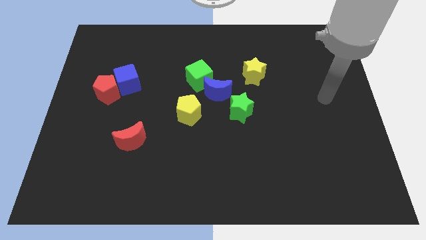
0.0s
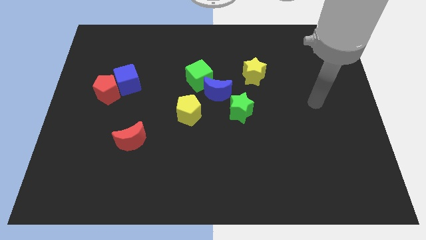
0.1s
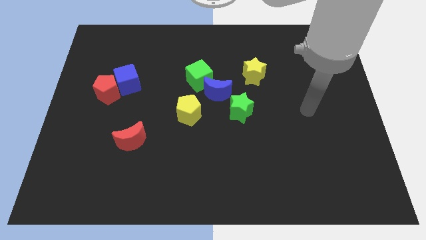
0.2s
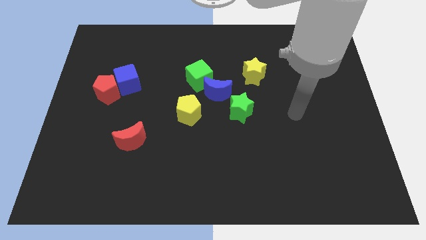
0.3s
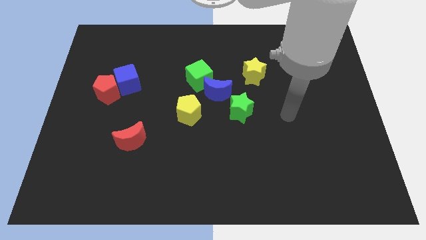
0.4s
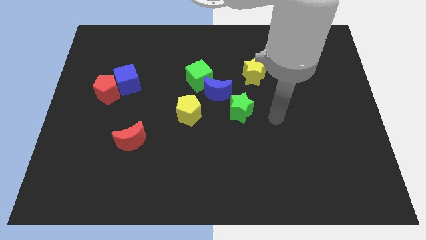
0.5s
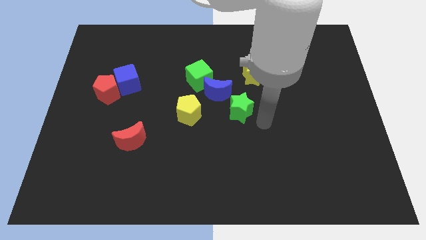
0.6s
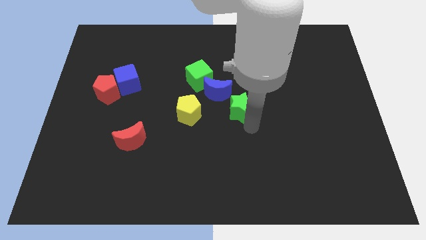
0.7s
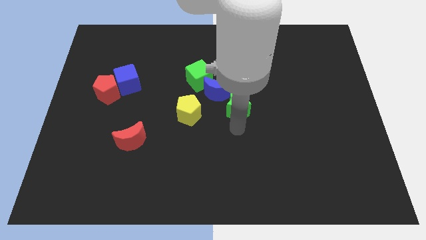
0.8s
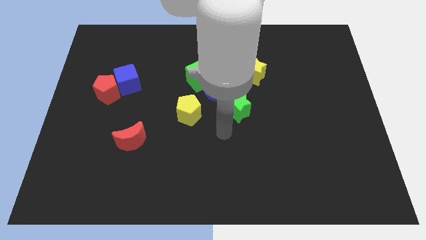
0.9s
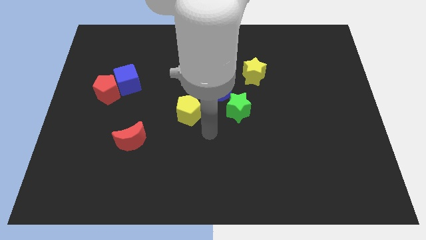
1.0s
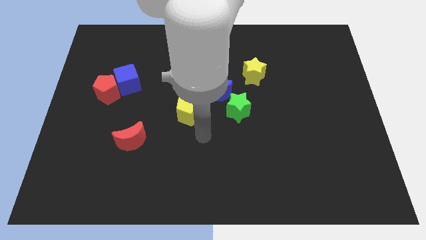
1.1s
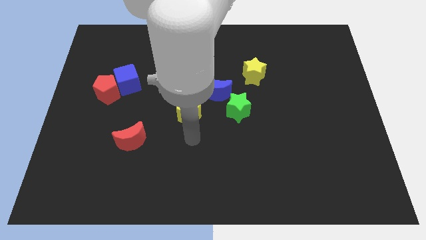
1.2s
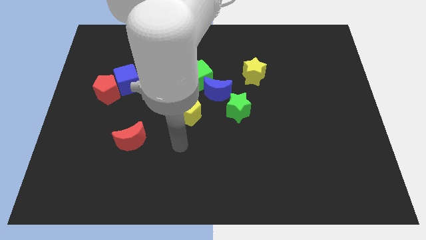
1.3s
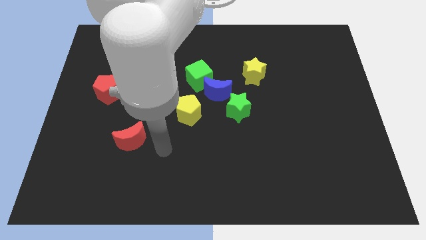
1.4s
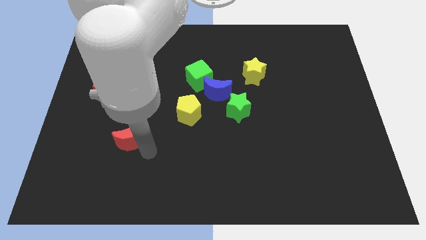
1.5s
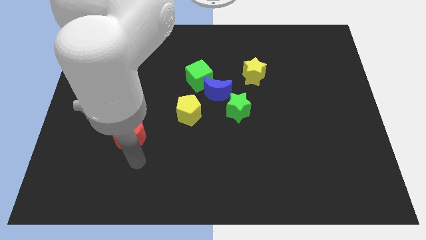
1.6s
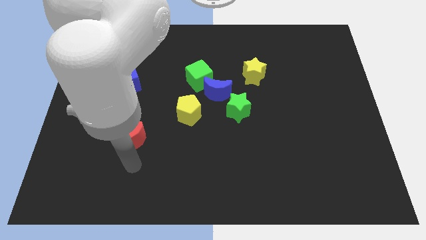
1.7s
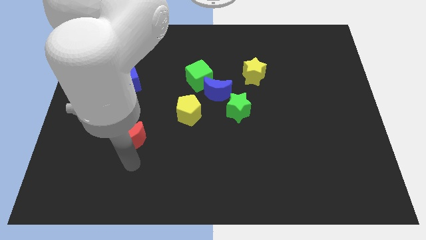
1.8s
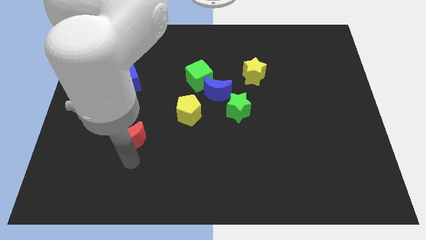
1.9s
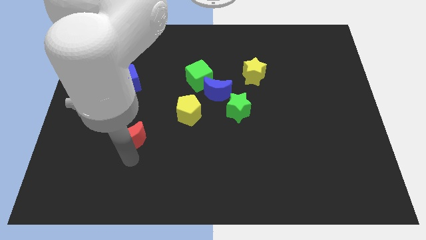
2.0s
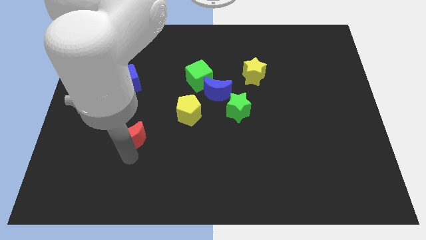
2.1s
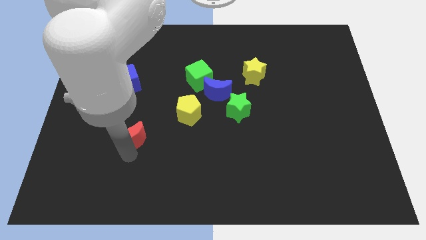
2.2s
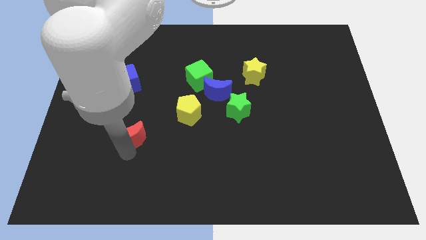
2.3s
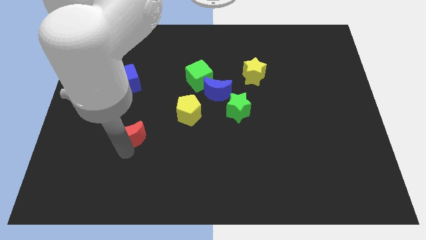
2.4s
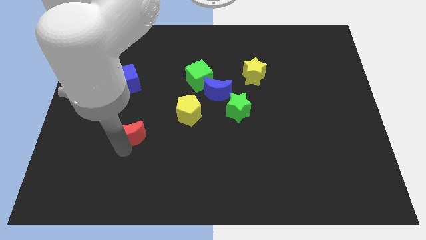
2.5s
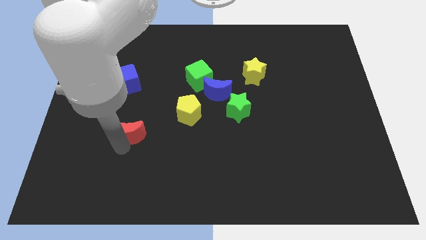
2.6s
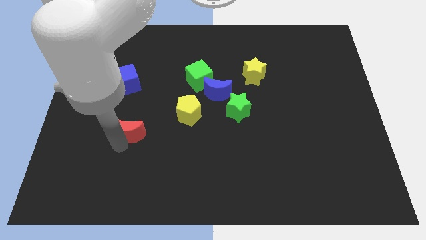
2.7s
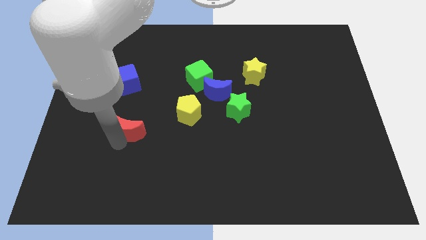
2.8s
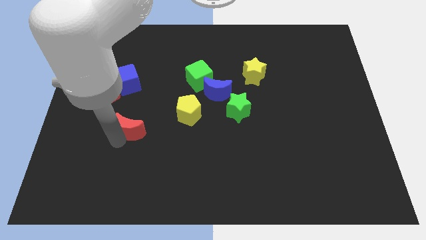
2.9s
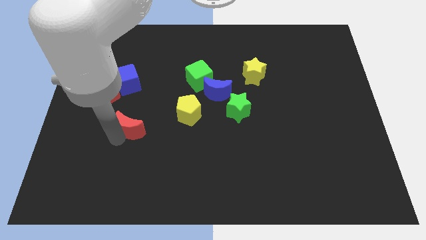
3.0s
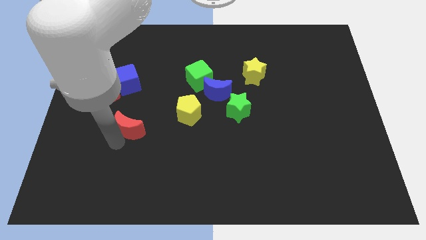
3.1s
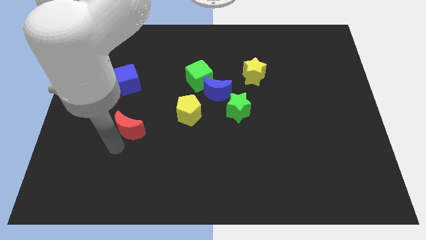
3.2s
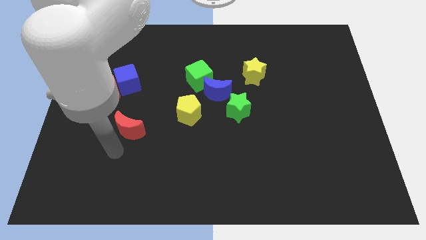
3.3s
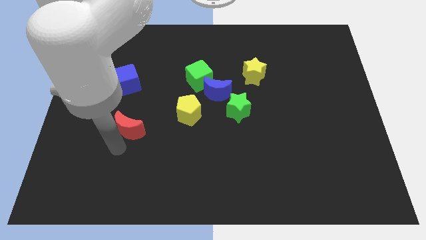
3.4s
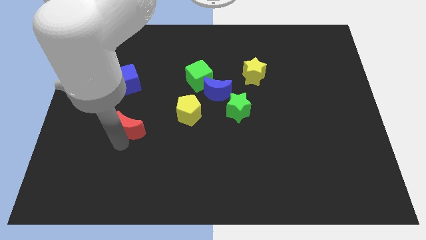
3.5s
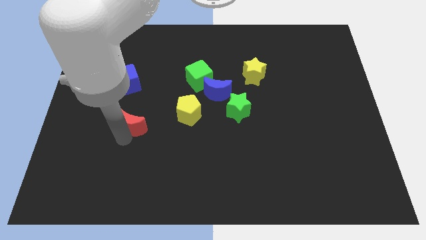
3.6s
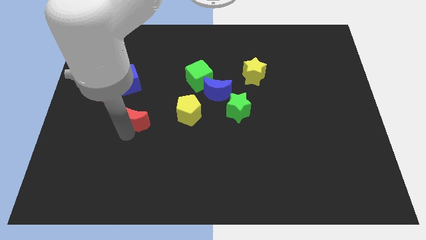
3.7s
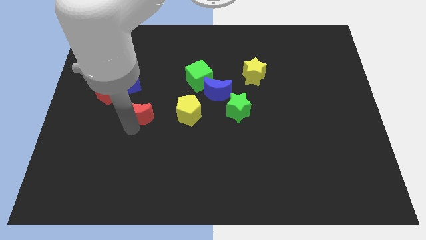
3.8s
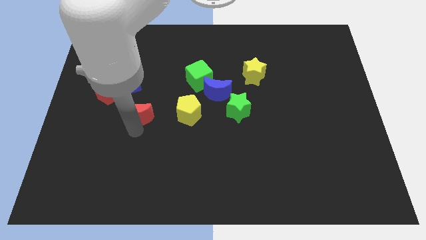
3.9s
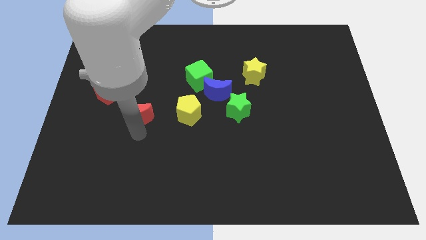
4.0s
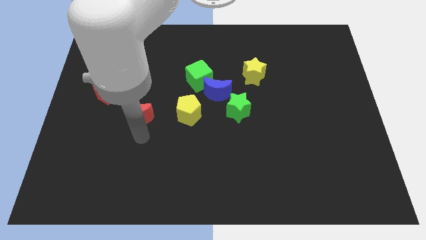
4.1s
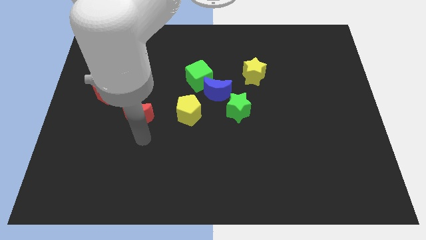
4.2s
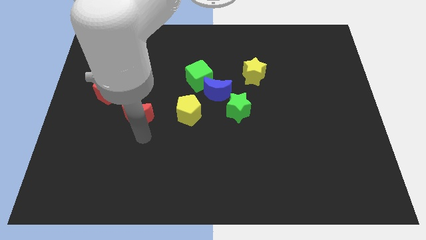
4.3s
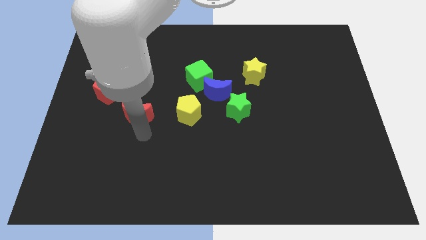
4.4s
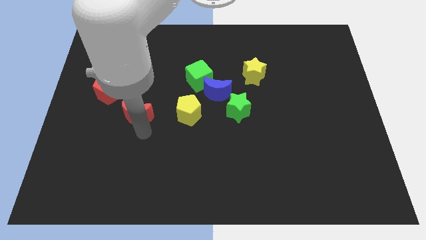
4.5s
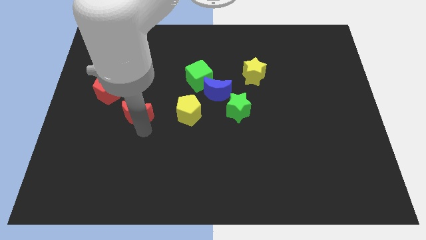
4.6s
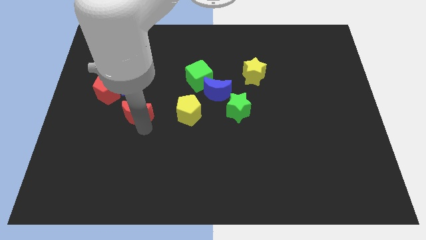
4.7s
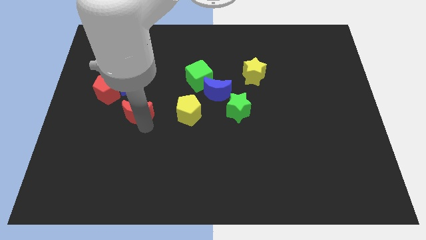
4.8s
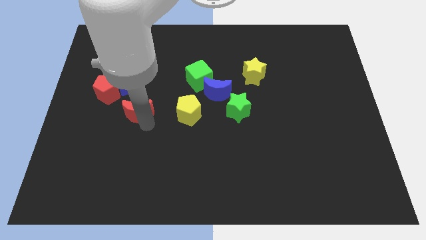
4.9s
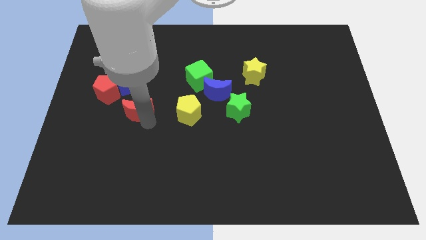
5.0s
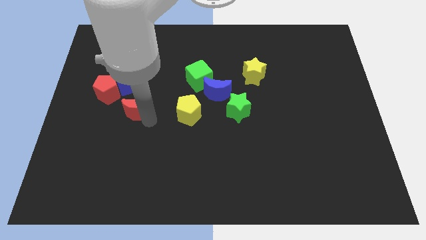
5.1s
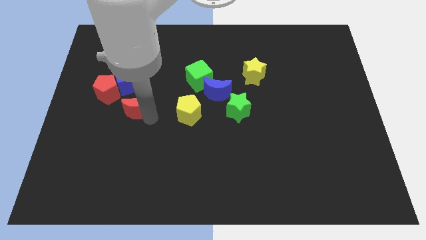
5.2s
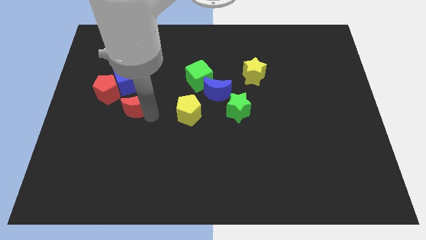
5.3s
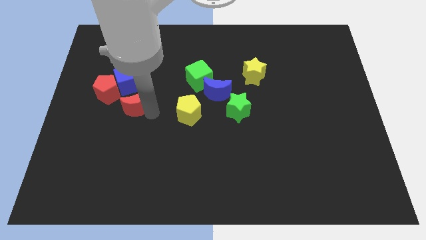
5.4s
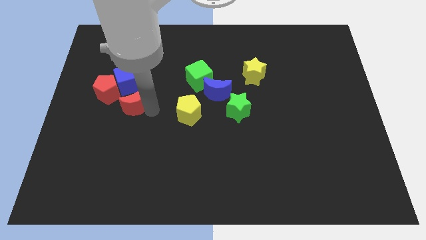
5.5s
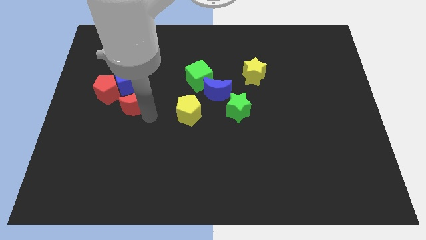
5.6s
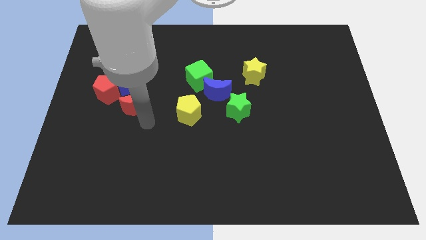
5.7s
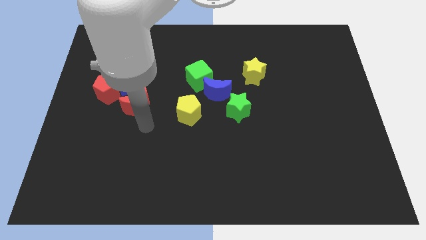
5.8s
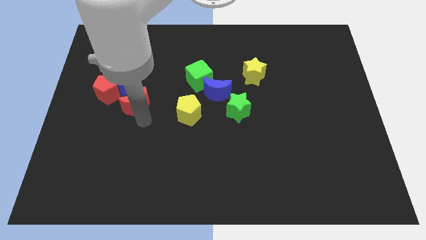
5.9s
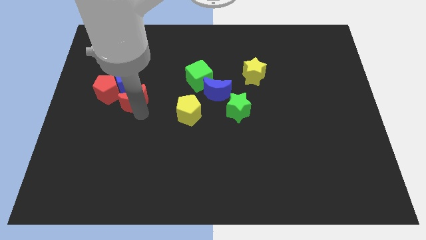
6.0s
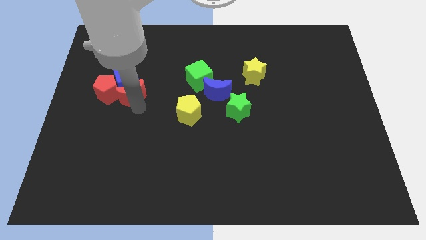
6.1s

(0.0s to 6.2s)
put the red moon next to the blue cube

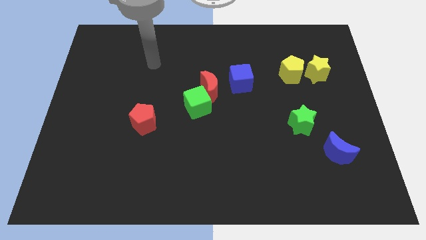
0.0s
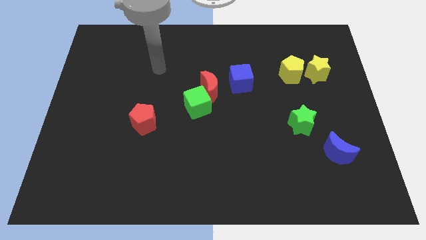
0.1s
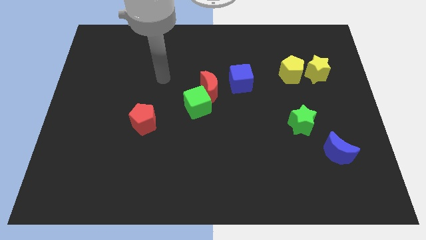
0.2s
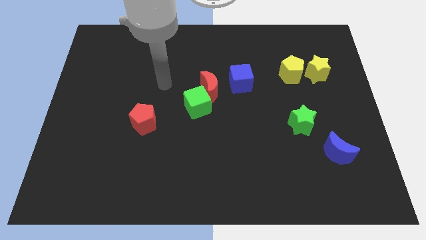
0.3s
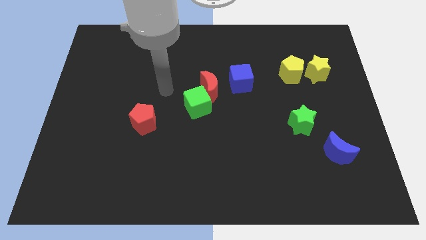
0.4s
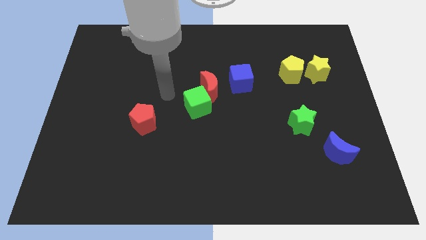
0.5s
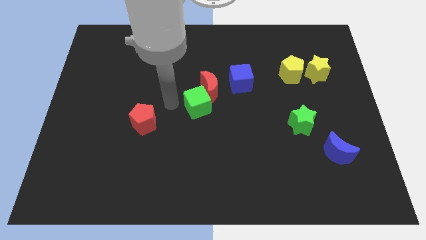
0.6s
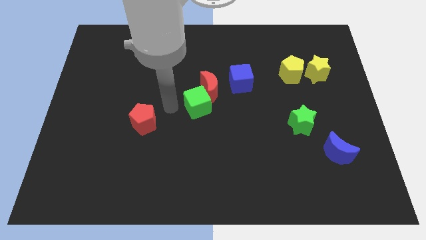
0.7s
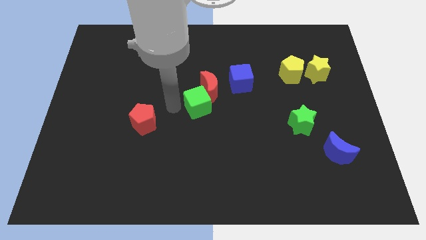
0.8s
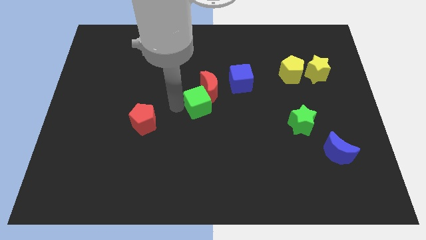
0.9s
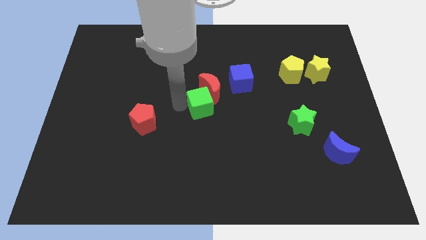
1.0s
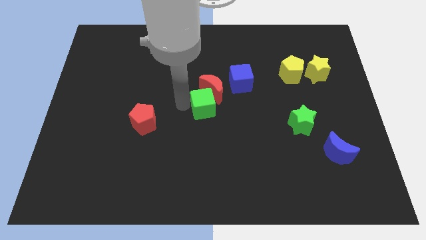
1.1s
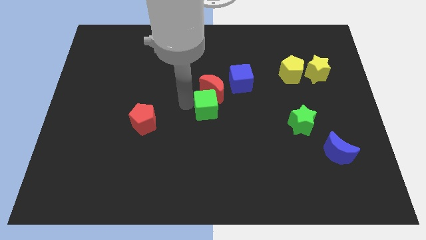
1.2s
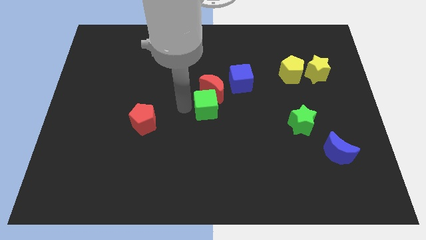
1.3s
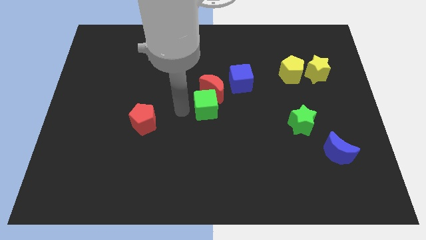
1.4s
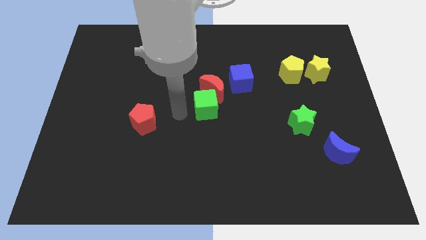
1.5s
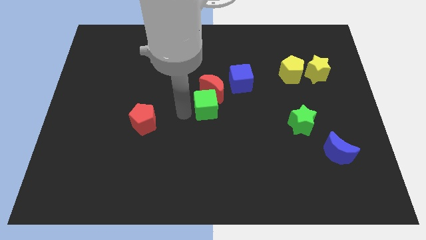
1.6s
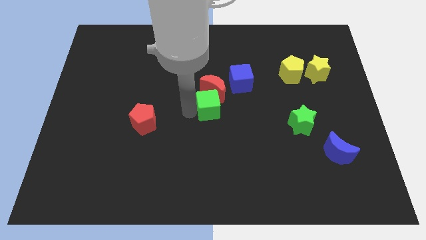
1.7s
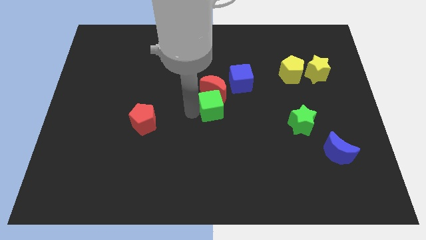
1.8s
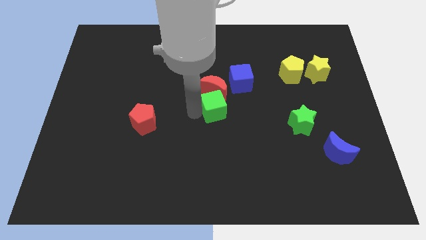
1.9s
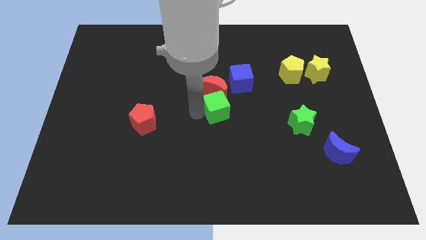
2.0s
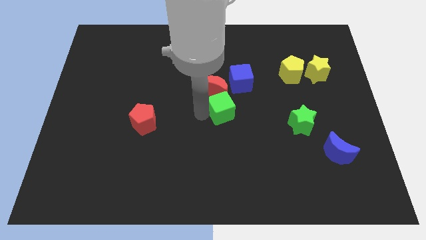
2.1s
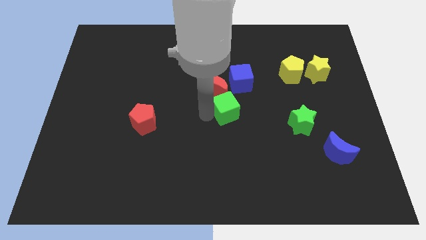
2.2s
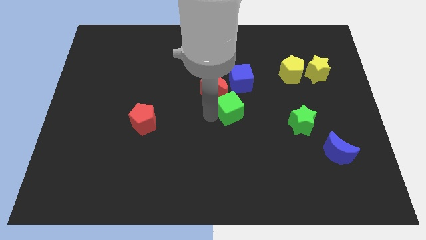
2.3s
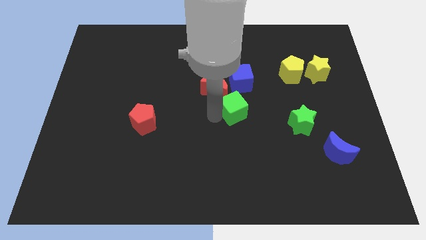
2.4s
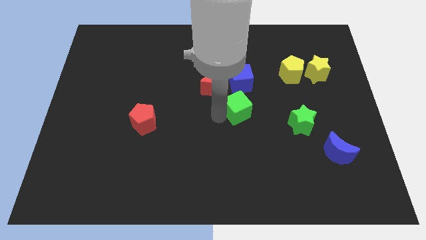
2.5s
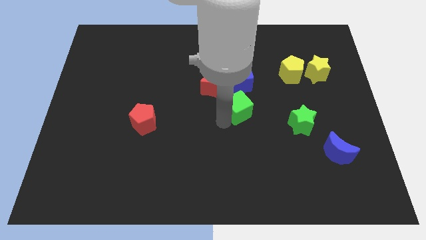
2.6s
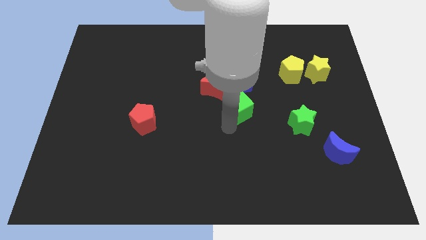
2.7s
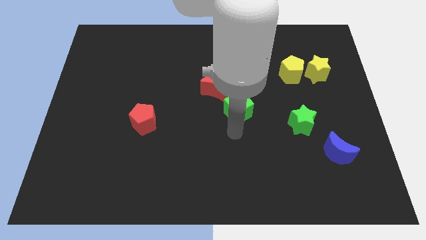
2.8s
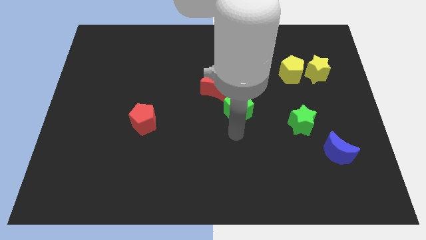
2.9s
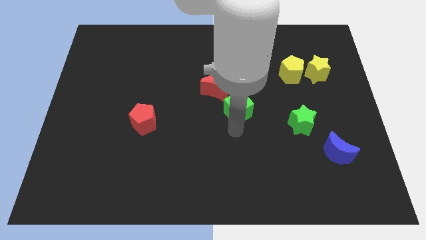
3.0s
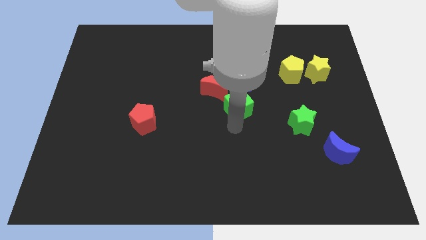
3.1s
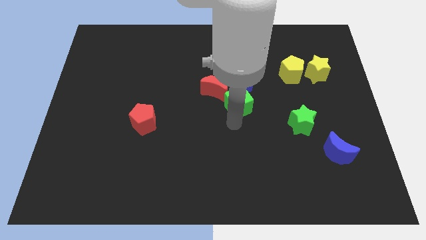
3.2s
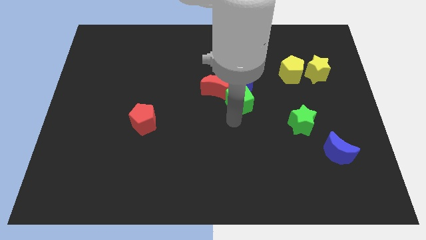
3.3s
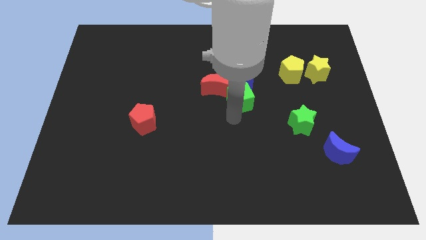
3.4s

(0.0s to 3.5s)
push the green cube close to the blue cube
